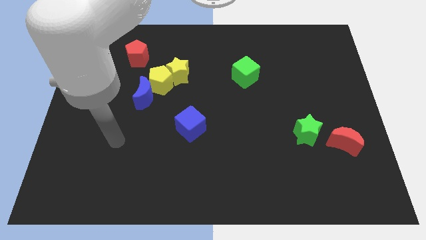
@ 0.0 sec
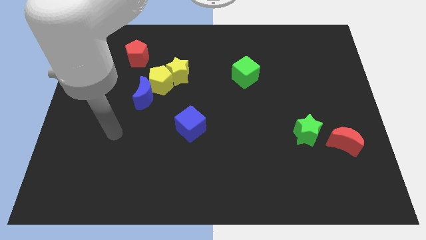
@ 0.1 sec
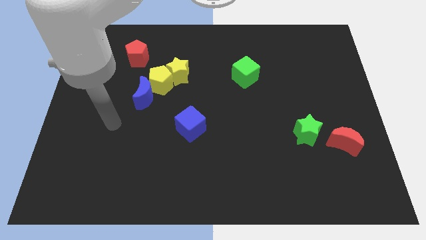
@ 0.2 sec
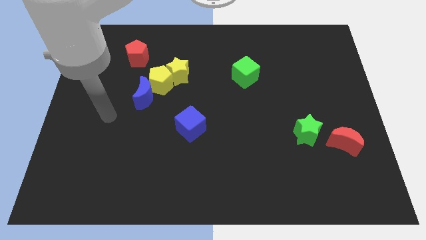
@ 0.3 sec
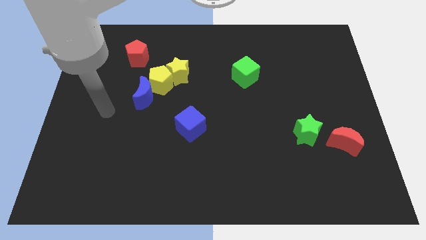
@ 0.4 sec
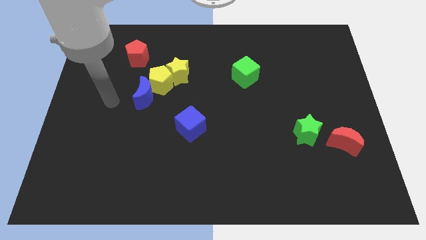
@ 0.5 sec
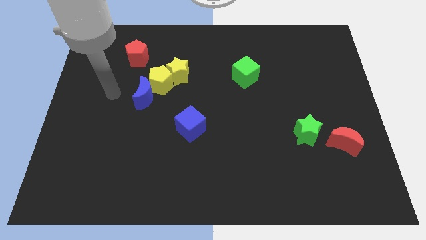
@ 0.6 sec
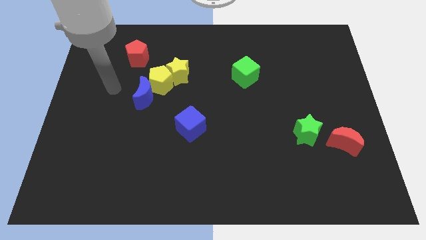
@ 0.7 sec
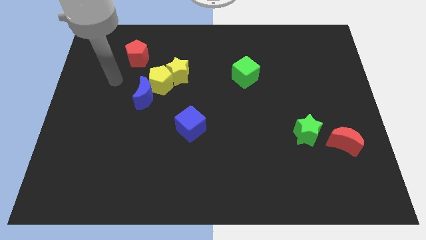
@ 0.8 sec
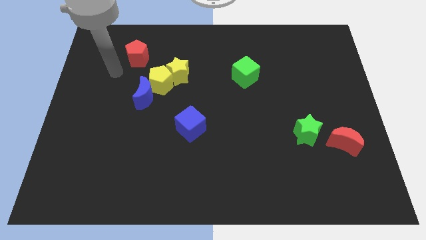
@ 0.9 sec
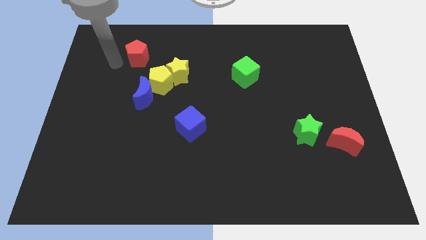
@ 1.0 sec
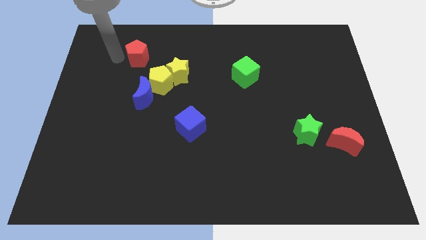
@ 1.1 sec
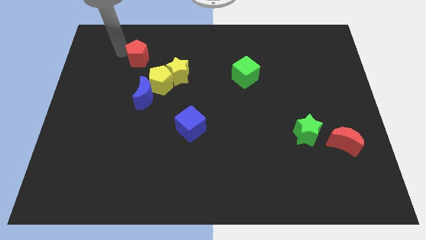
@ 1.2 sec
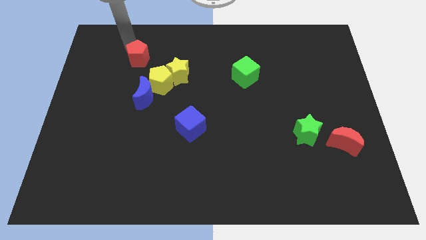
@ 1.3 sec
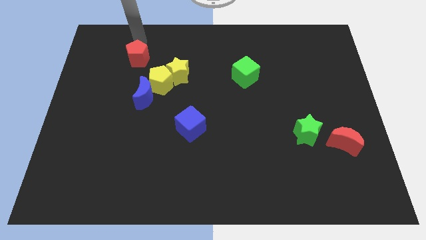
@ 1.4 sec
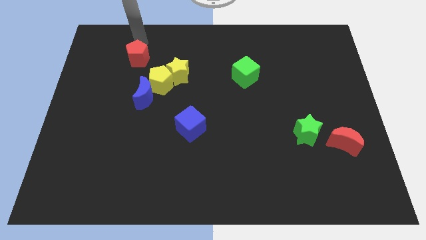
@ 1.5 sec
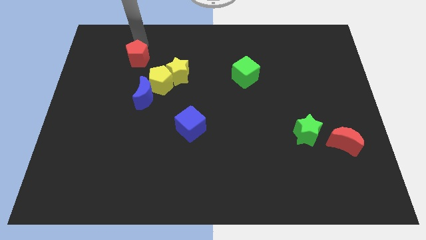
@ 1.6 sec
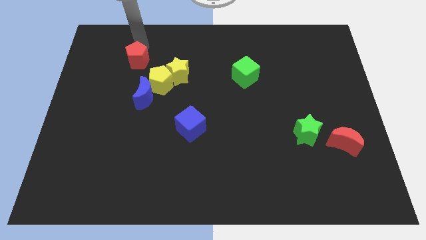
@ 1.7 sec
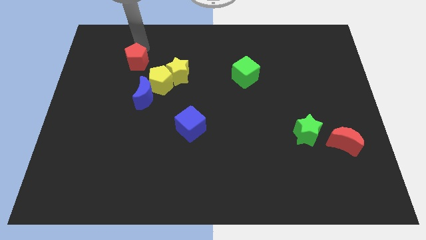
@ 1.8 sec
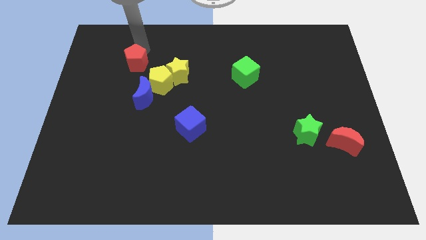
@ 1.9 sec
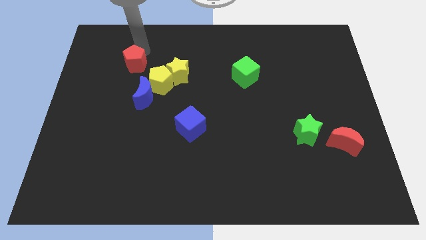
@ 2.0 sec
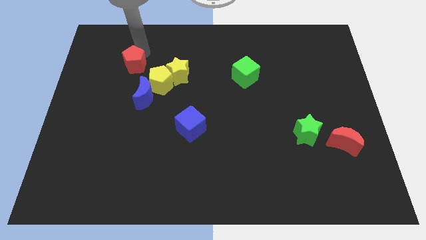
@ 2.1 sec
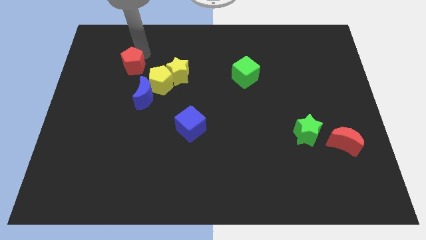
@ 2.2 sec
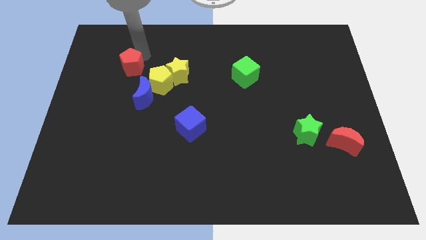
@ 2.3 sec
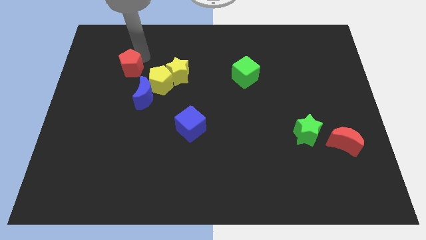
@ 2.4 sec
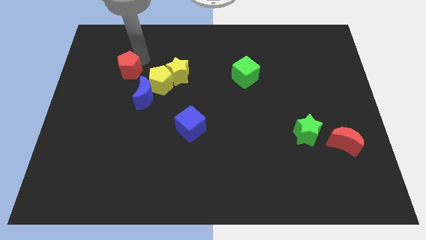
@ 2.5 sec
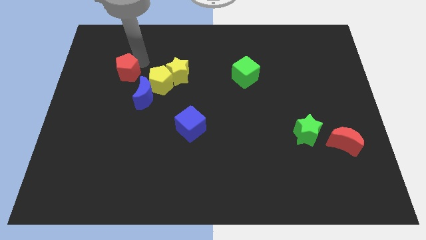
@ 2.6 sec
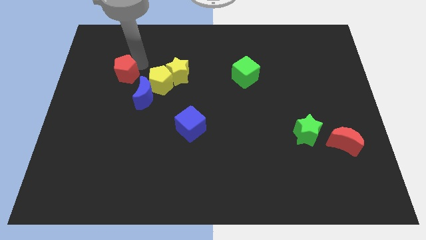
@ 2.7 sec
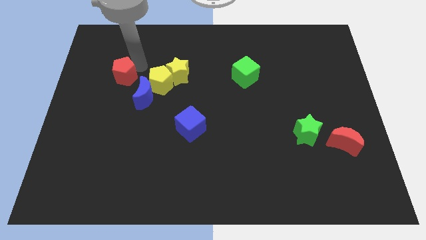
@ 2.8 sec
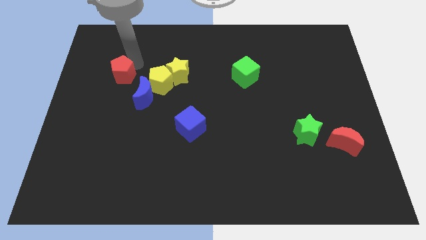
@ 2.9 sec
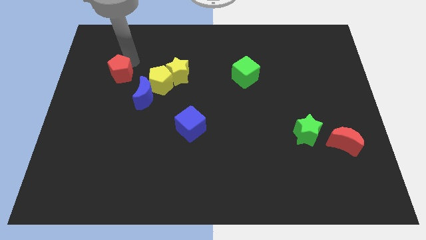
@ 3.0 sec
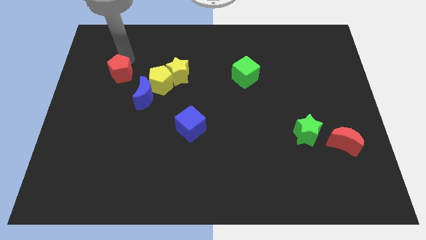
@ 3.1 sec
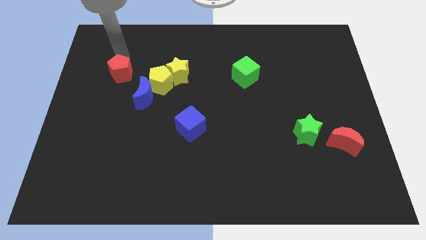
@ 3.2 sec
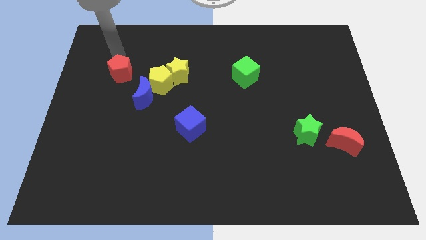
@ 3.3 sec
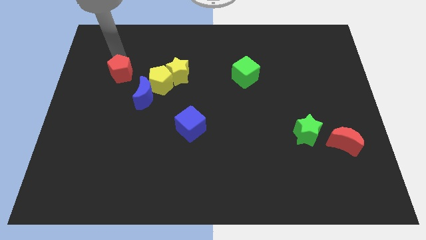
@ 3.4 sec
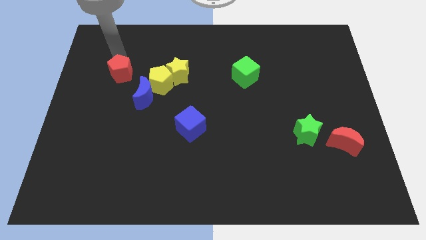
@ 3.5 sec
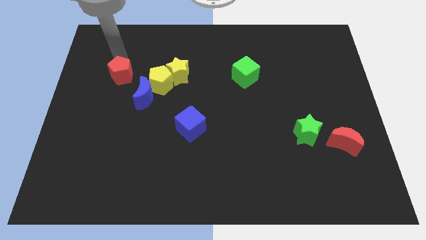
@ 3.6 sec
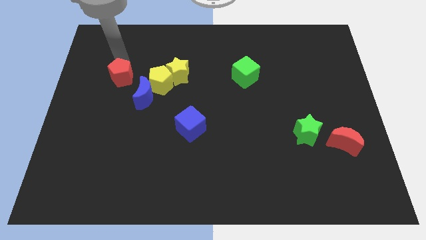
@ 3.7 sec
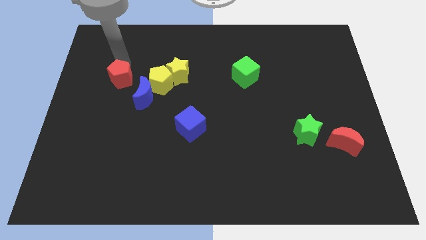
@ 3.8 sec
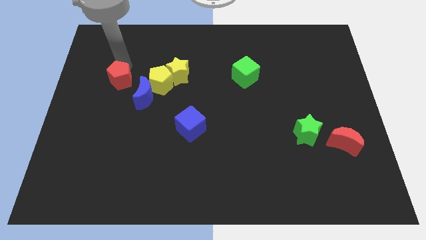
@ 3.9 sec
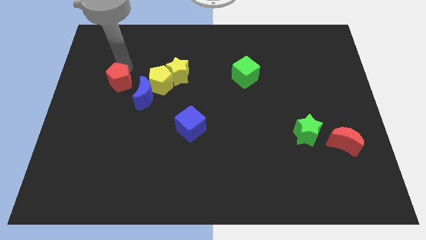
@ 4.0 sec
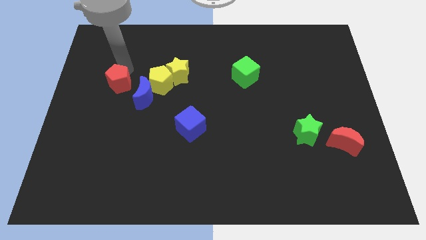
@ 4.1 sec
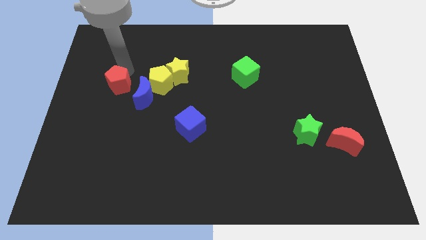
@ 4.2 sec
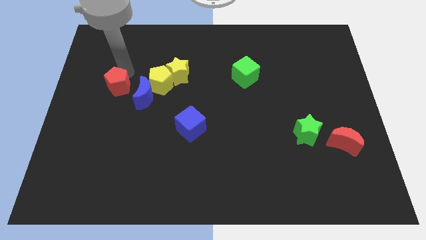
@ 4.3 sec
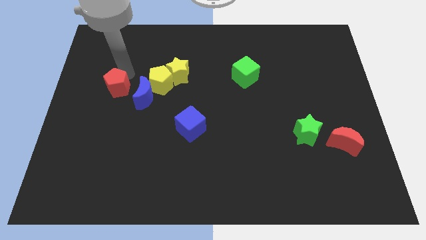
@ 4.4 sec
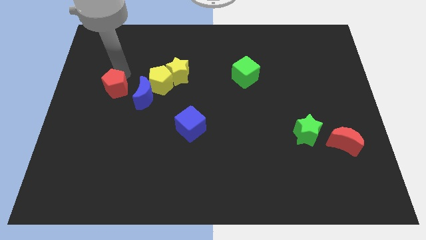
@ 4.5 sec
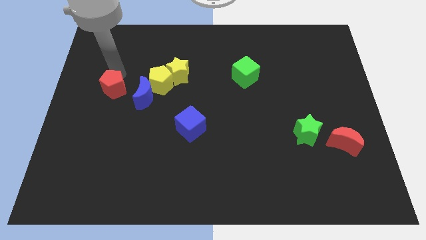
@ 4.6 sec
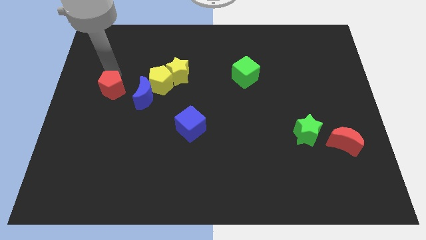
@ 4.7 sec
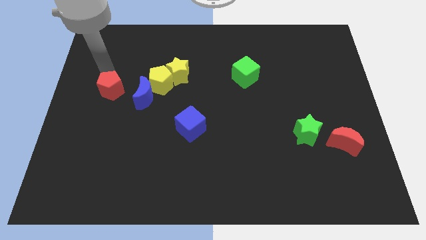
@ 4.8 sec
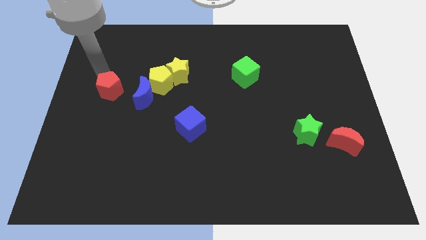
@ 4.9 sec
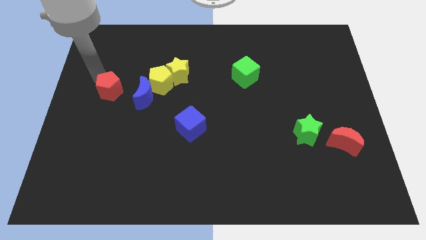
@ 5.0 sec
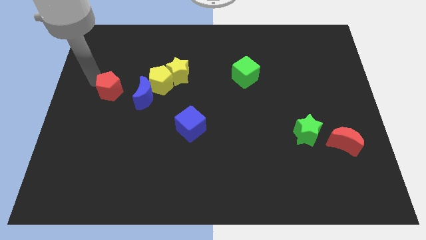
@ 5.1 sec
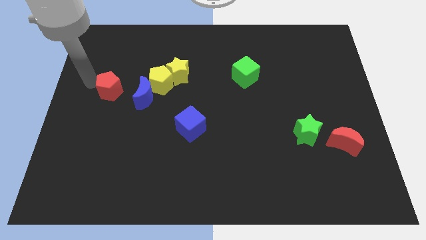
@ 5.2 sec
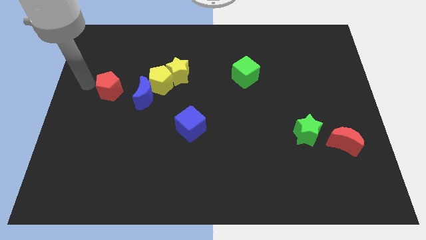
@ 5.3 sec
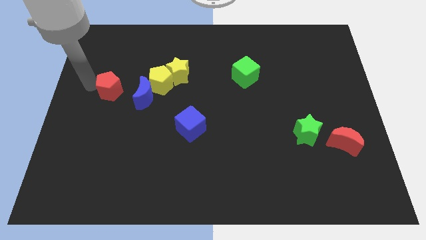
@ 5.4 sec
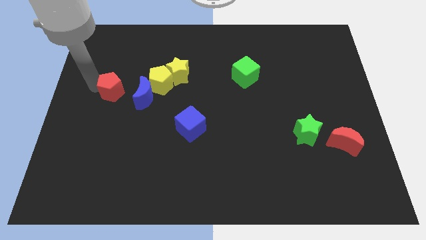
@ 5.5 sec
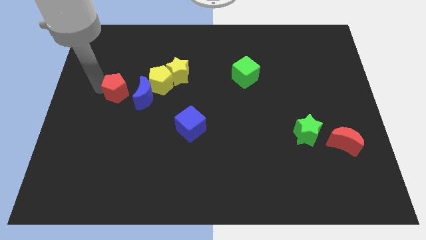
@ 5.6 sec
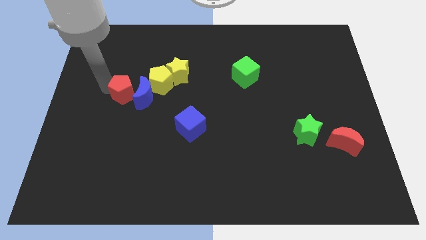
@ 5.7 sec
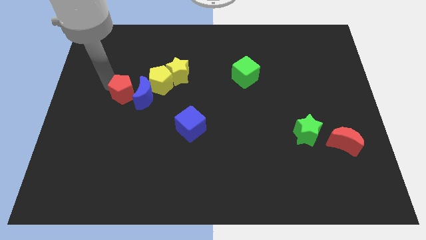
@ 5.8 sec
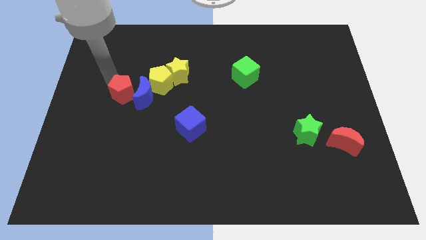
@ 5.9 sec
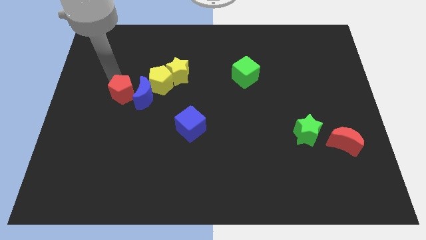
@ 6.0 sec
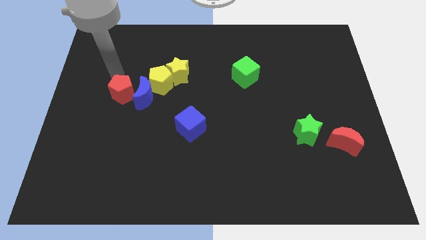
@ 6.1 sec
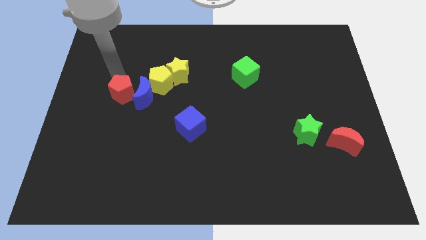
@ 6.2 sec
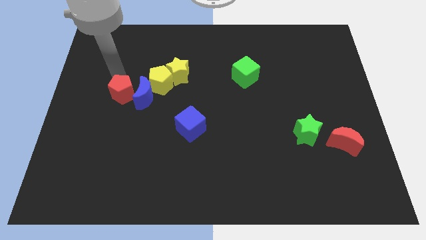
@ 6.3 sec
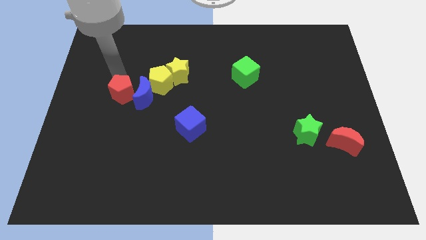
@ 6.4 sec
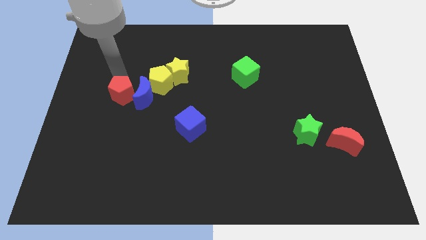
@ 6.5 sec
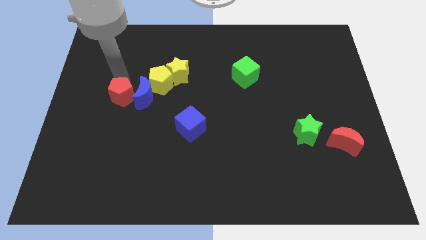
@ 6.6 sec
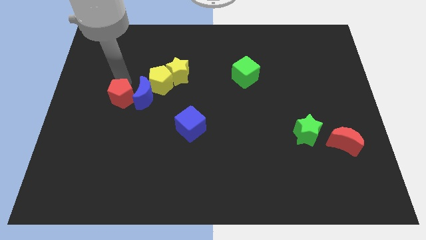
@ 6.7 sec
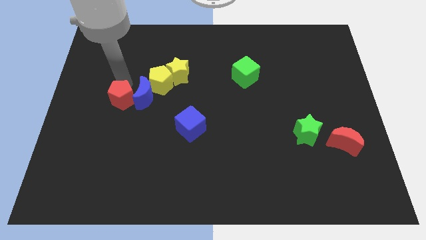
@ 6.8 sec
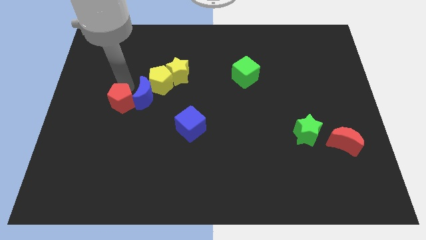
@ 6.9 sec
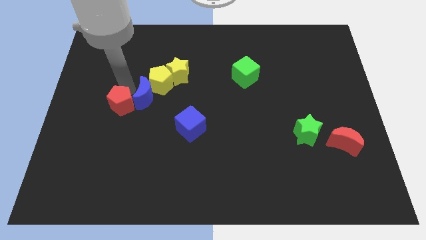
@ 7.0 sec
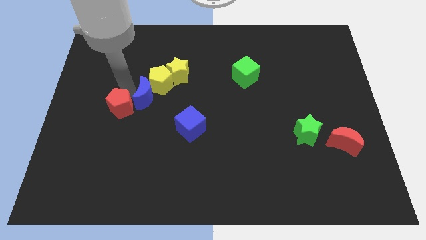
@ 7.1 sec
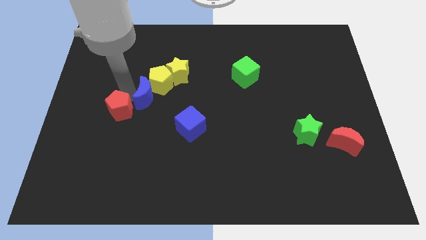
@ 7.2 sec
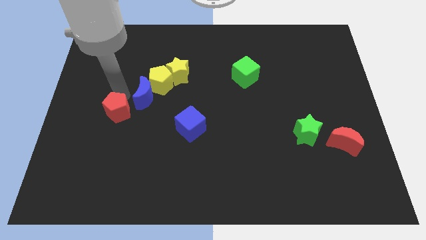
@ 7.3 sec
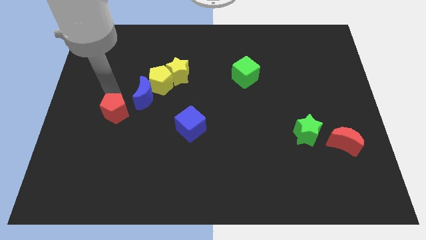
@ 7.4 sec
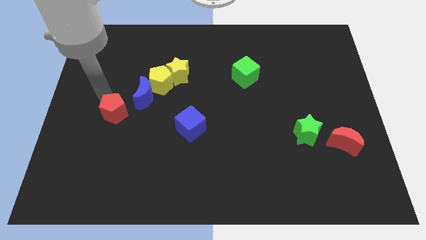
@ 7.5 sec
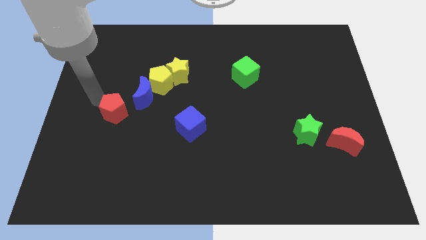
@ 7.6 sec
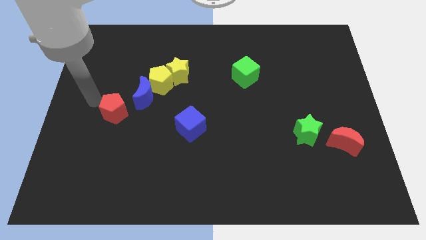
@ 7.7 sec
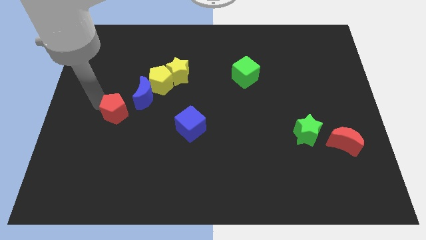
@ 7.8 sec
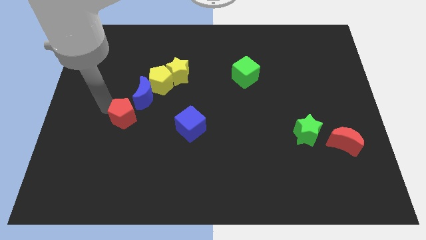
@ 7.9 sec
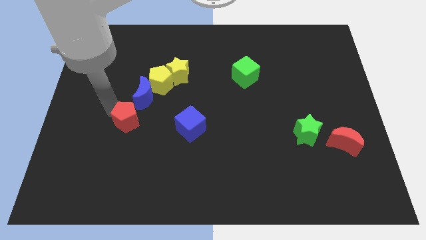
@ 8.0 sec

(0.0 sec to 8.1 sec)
slide the red pentagon left of the blue cube

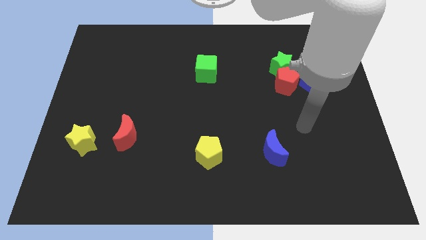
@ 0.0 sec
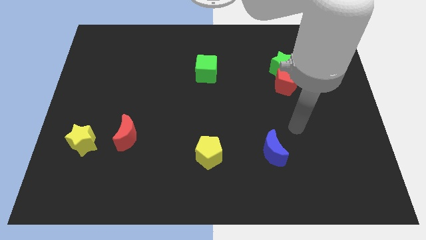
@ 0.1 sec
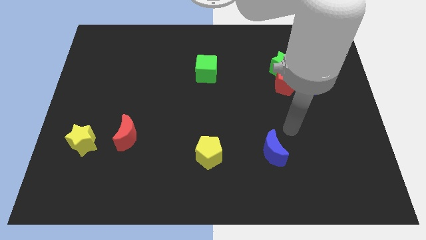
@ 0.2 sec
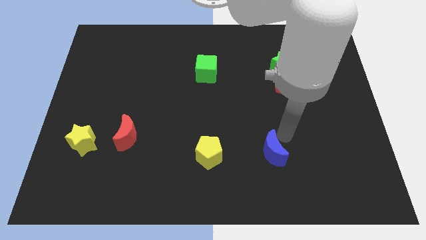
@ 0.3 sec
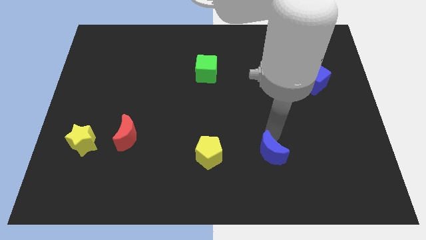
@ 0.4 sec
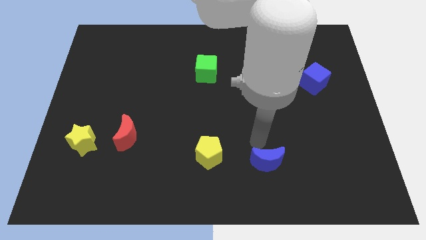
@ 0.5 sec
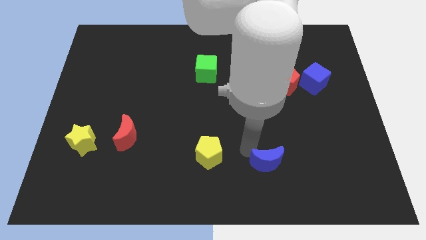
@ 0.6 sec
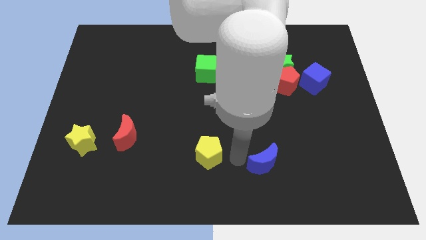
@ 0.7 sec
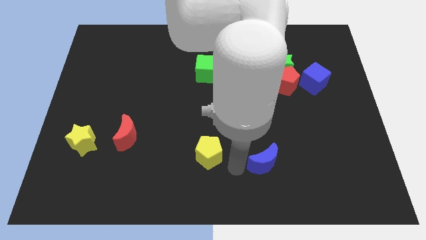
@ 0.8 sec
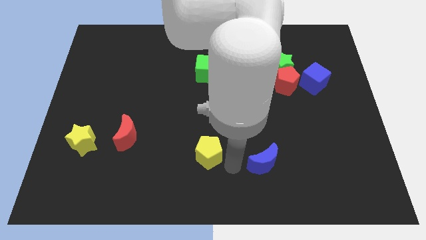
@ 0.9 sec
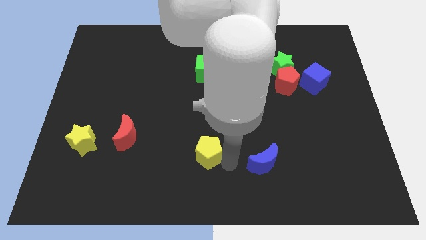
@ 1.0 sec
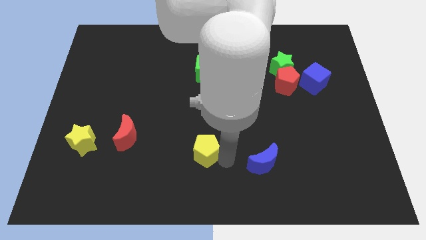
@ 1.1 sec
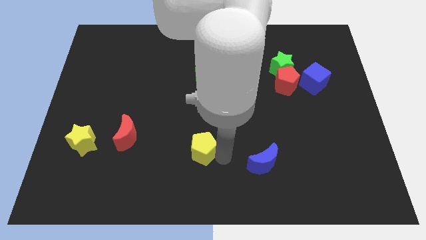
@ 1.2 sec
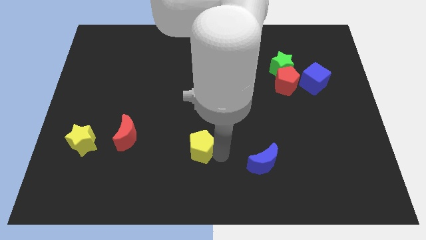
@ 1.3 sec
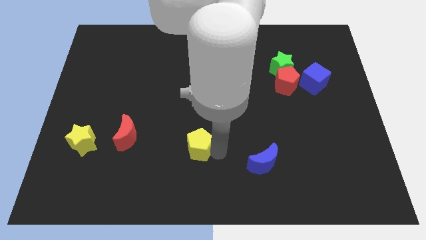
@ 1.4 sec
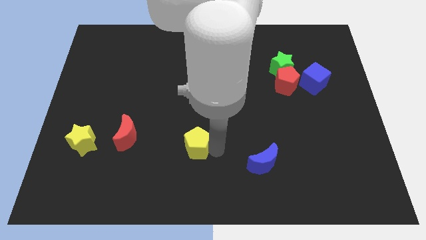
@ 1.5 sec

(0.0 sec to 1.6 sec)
push the yellow pentagon to the right of the red moon
